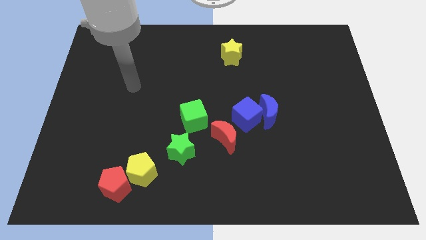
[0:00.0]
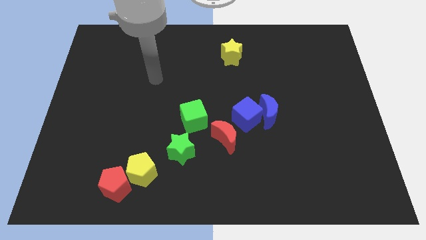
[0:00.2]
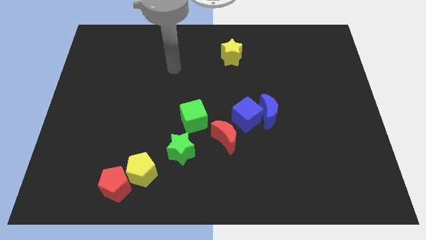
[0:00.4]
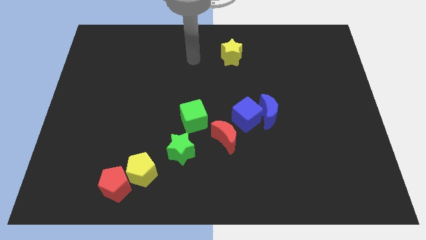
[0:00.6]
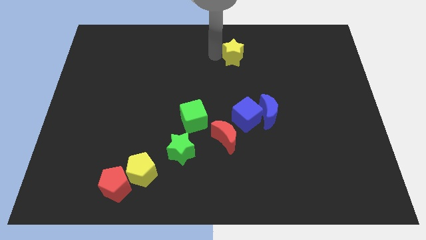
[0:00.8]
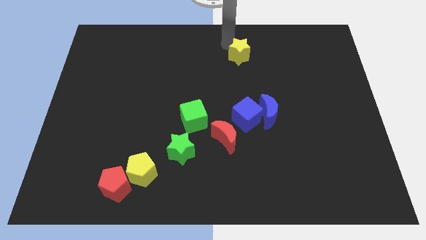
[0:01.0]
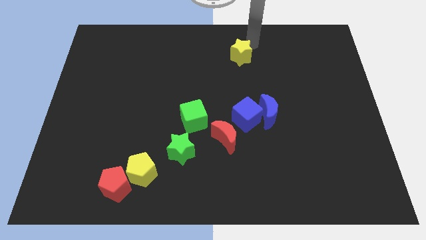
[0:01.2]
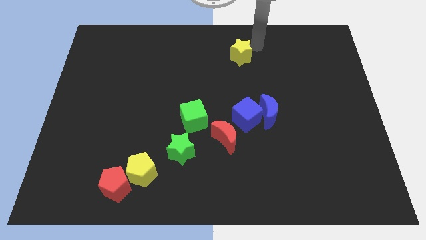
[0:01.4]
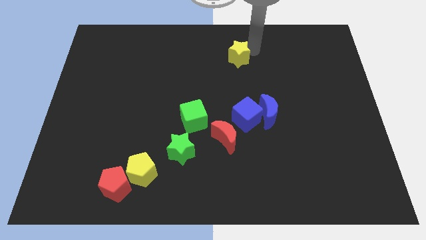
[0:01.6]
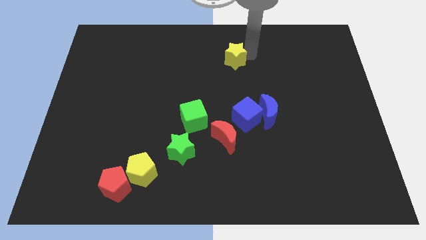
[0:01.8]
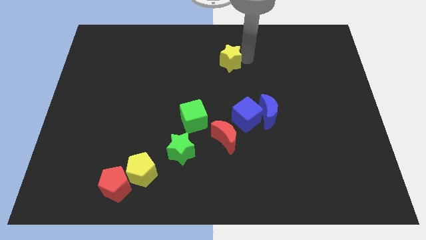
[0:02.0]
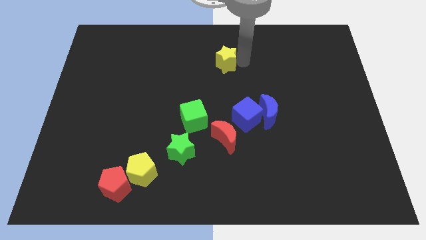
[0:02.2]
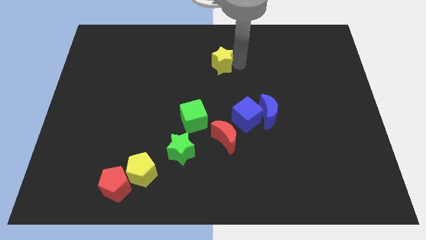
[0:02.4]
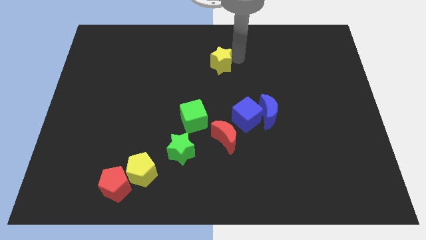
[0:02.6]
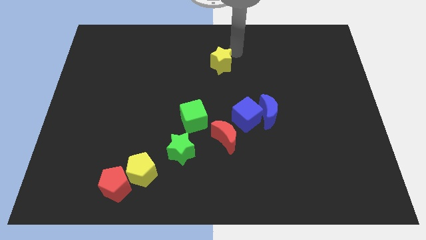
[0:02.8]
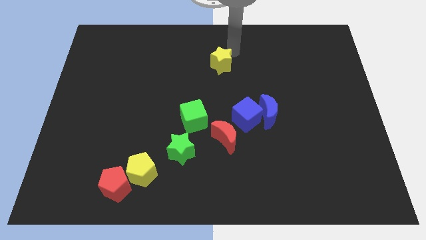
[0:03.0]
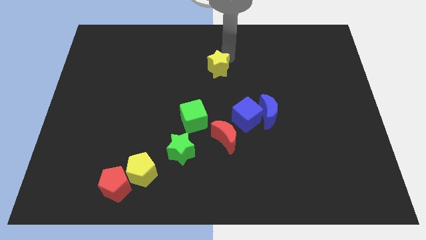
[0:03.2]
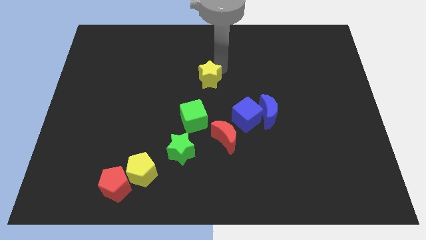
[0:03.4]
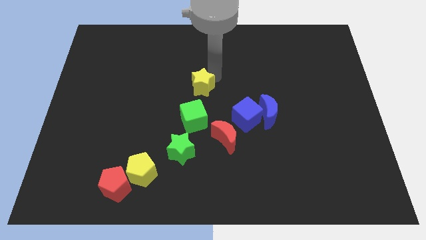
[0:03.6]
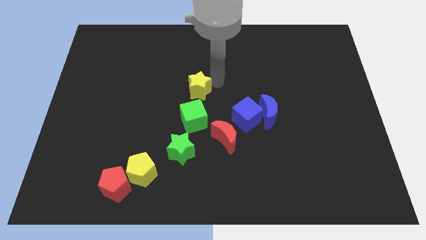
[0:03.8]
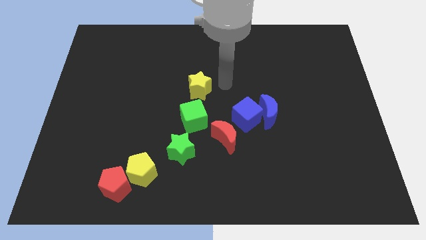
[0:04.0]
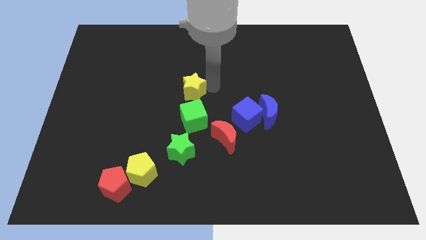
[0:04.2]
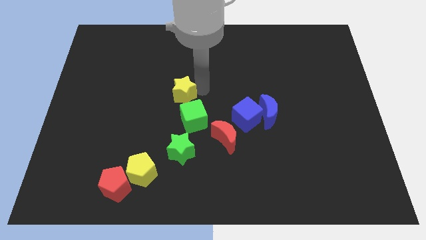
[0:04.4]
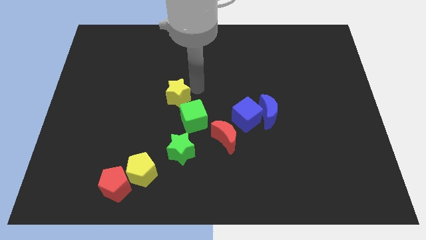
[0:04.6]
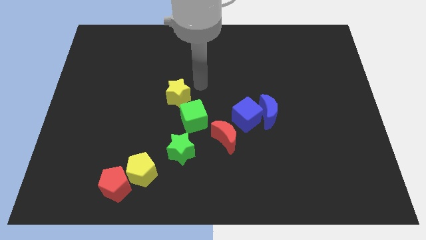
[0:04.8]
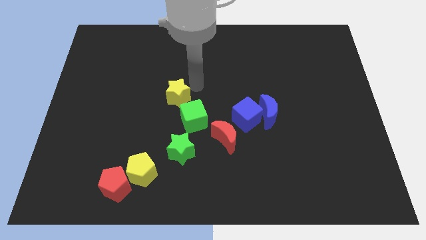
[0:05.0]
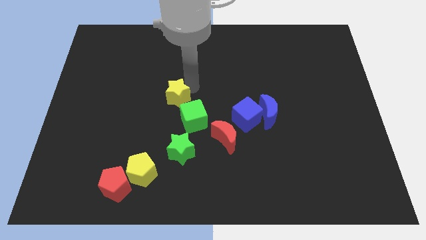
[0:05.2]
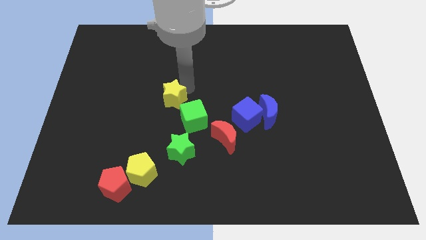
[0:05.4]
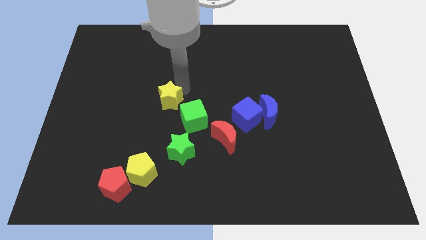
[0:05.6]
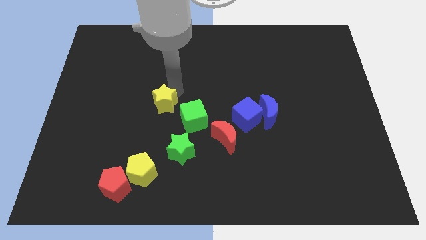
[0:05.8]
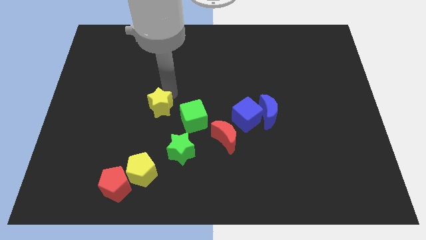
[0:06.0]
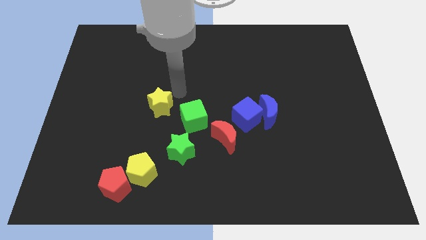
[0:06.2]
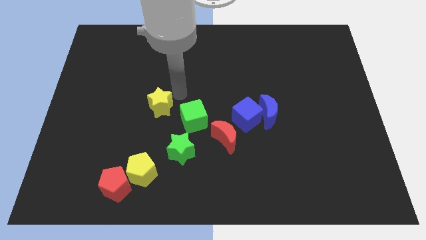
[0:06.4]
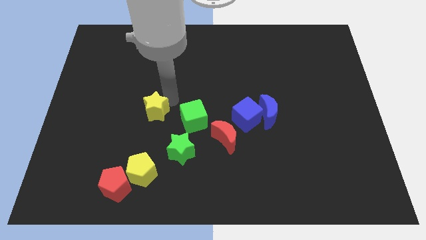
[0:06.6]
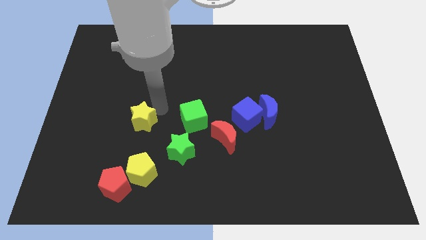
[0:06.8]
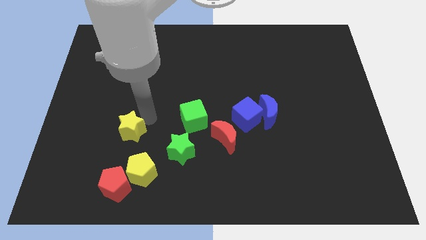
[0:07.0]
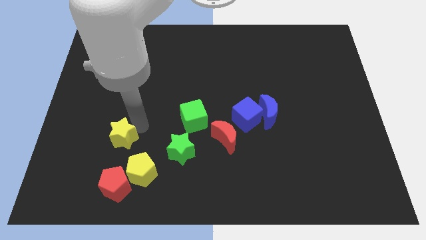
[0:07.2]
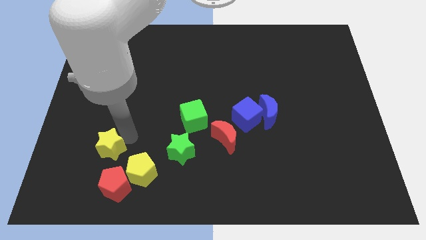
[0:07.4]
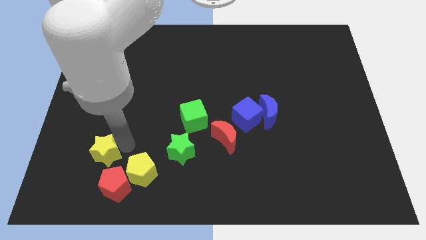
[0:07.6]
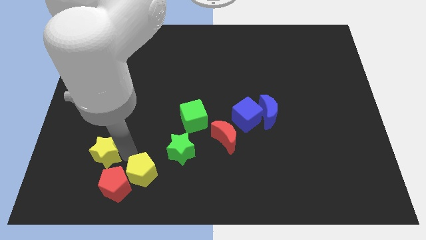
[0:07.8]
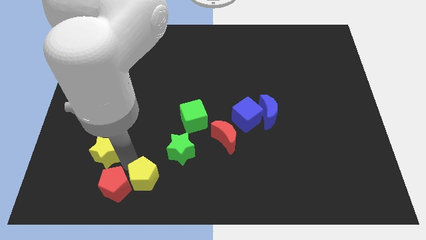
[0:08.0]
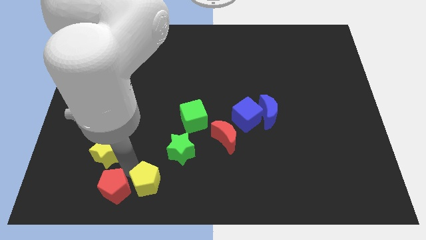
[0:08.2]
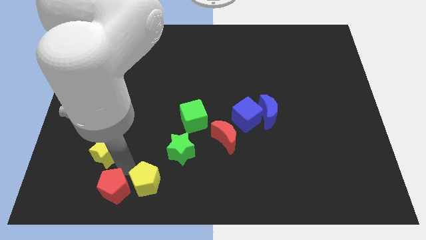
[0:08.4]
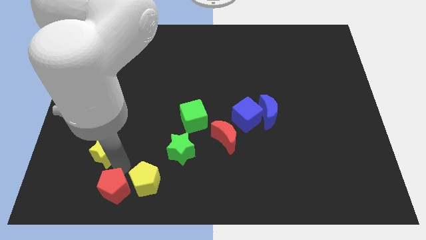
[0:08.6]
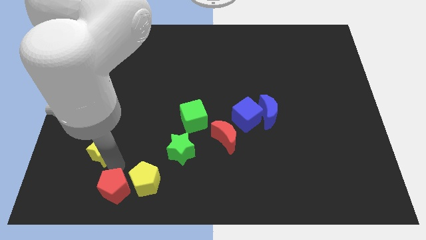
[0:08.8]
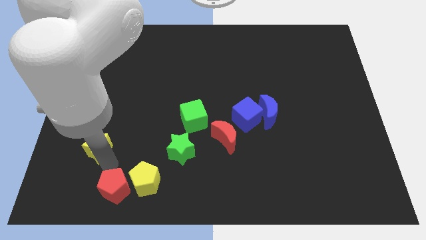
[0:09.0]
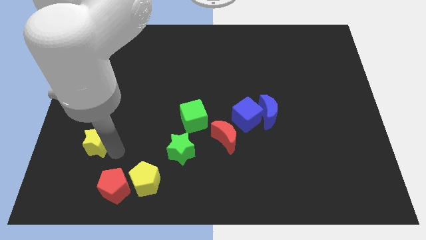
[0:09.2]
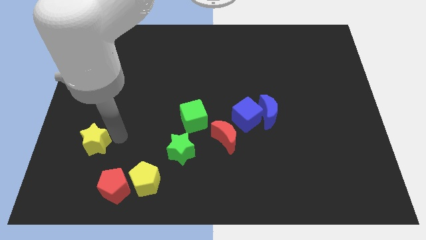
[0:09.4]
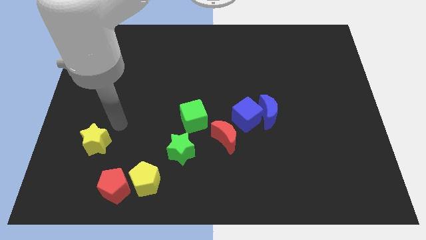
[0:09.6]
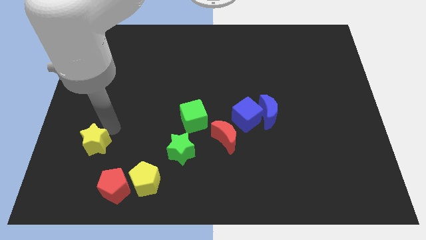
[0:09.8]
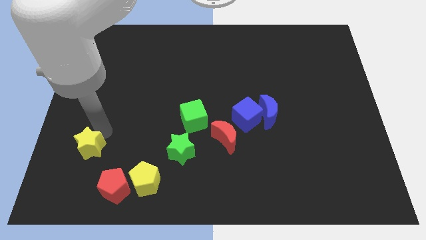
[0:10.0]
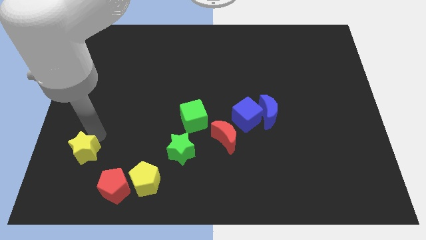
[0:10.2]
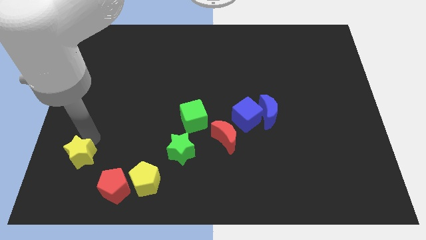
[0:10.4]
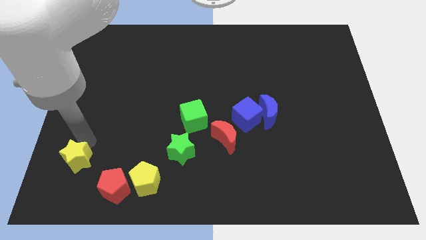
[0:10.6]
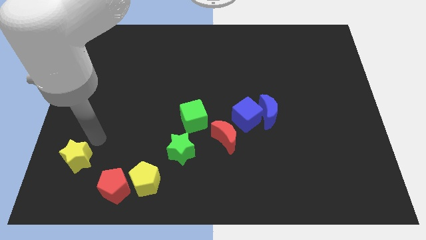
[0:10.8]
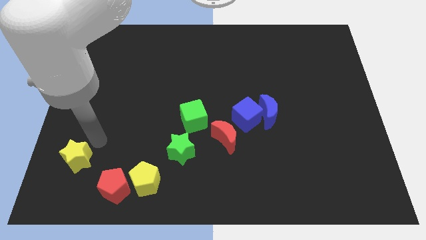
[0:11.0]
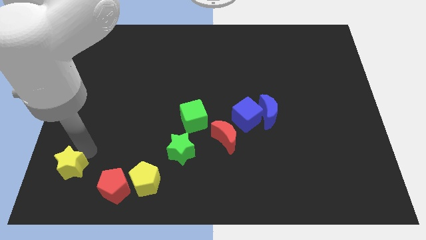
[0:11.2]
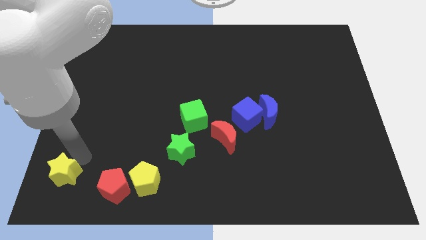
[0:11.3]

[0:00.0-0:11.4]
push the yellow star to the bottom left corner
